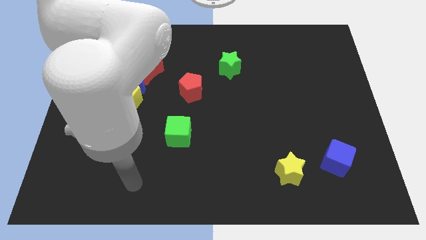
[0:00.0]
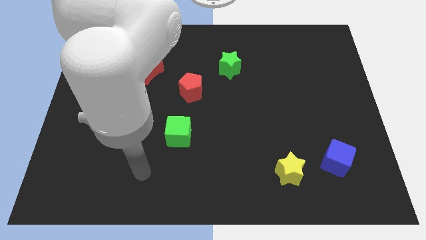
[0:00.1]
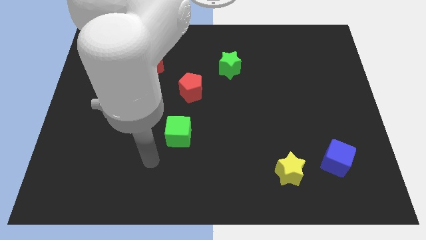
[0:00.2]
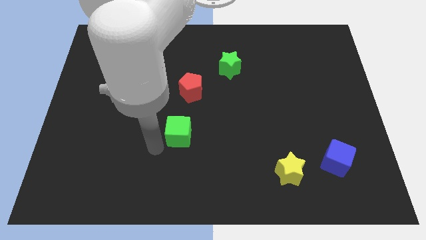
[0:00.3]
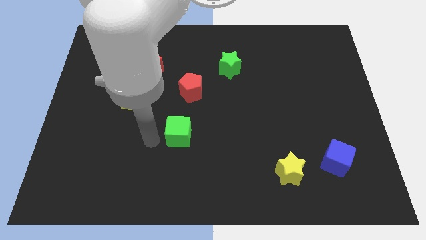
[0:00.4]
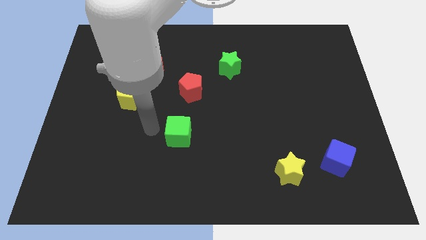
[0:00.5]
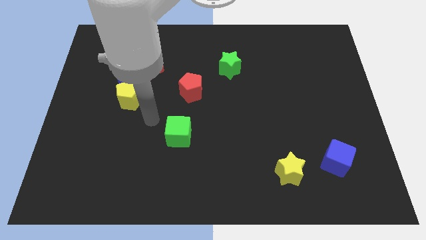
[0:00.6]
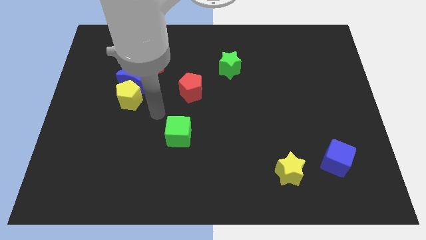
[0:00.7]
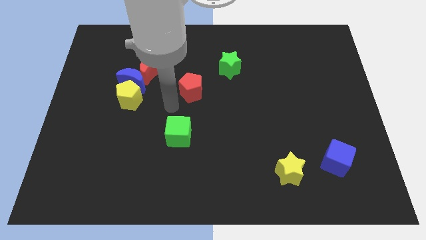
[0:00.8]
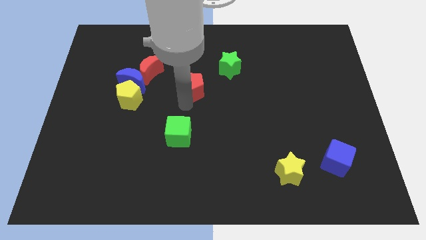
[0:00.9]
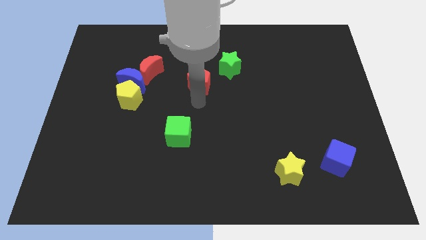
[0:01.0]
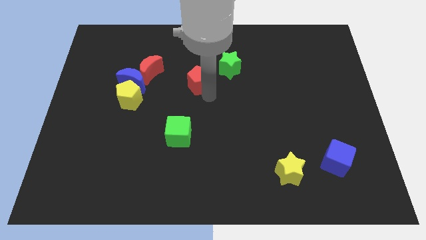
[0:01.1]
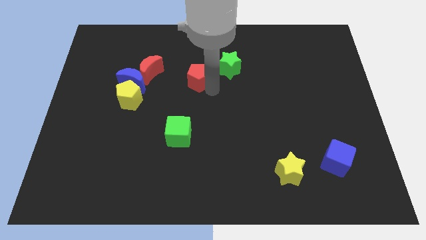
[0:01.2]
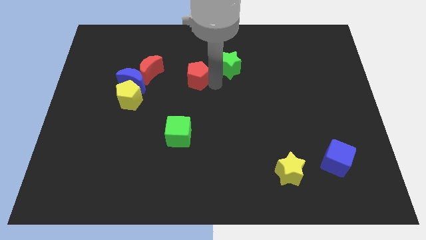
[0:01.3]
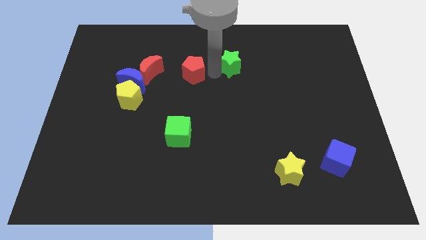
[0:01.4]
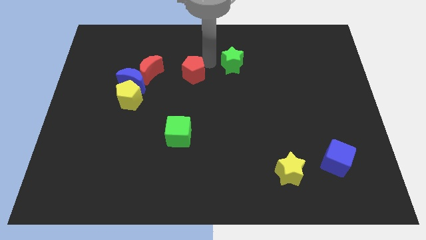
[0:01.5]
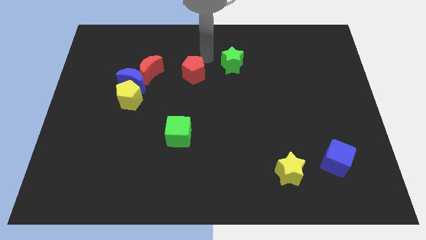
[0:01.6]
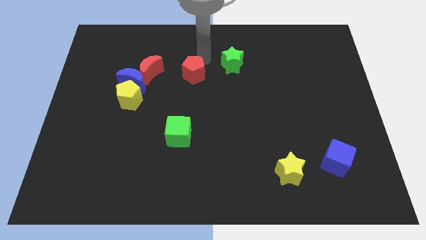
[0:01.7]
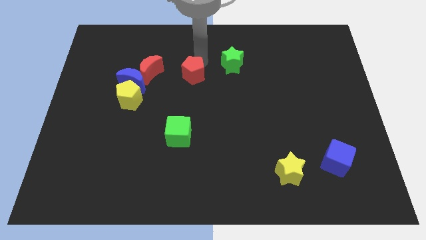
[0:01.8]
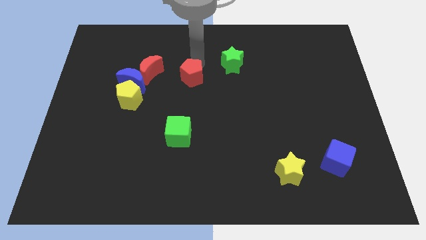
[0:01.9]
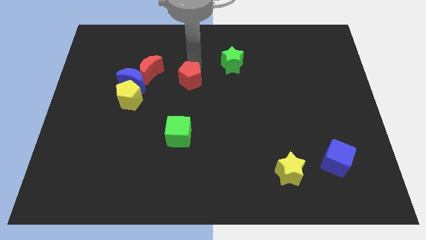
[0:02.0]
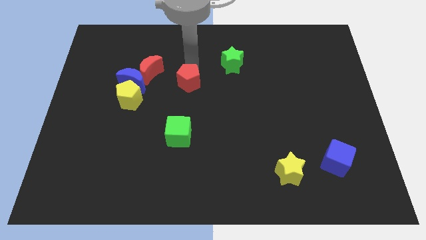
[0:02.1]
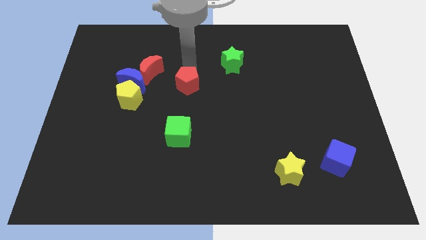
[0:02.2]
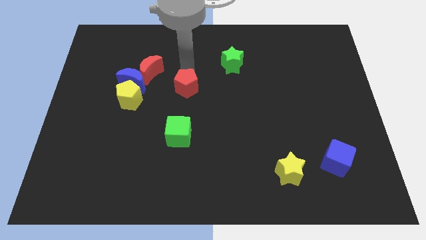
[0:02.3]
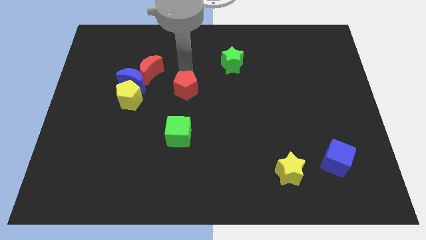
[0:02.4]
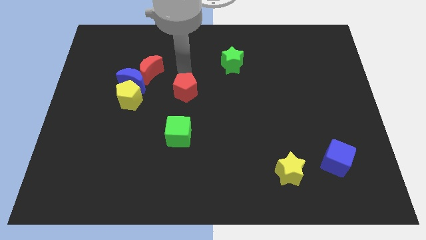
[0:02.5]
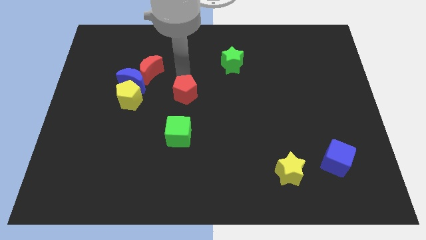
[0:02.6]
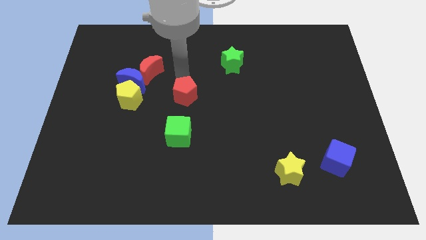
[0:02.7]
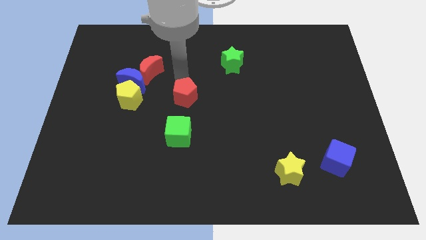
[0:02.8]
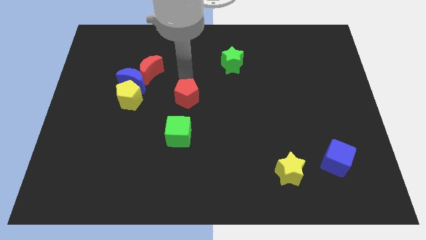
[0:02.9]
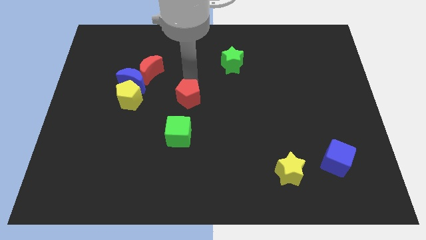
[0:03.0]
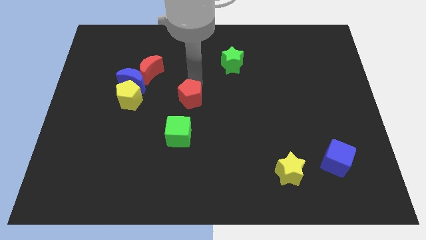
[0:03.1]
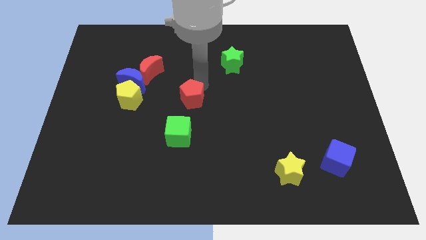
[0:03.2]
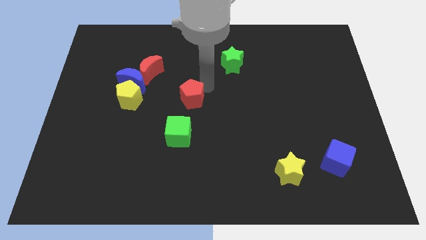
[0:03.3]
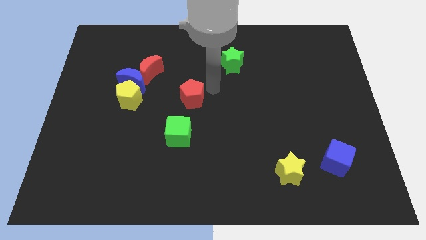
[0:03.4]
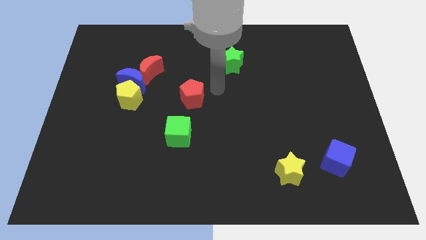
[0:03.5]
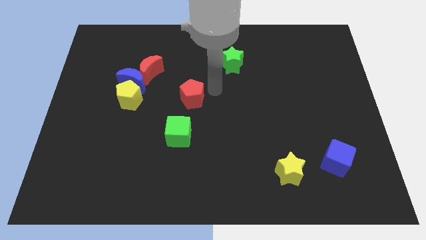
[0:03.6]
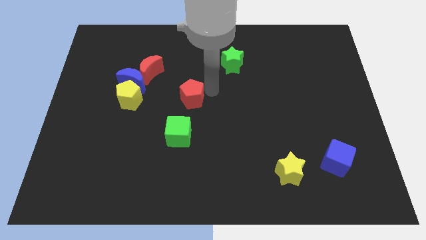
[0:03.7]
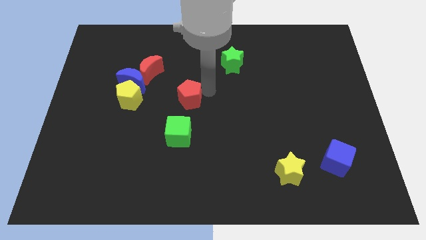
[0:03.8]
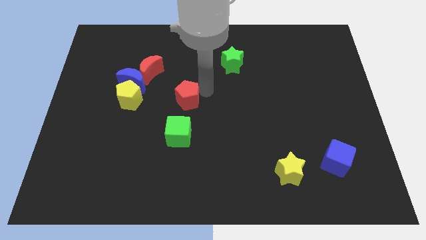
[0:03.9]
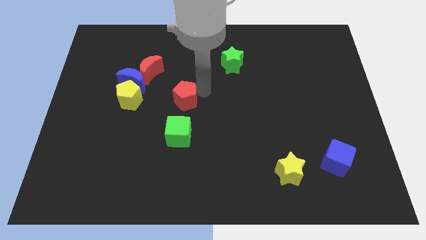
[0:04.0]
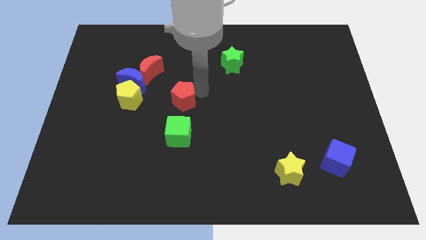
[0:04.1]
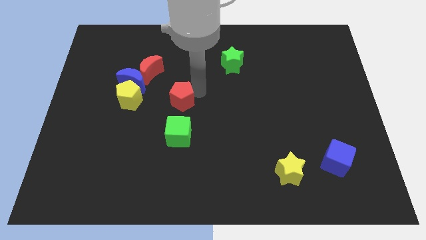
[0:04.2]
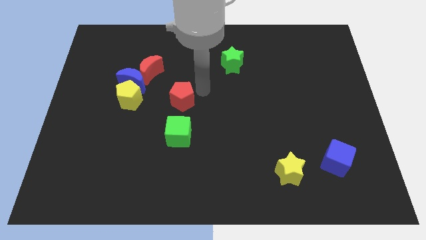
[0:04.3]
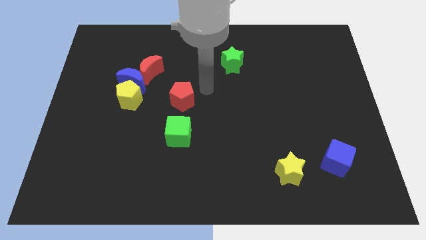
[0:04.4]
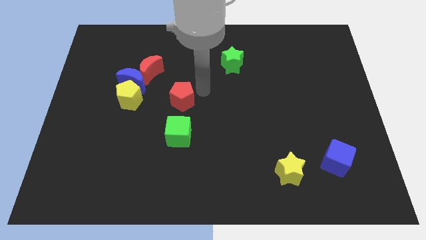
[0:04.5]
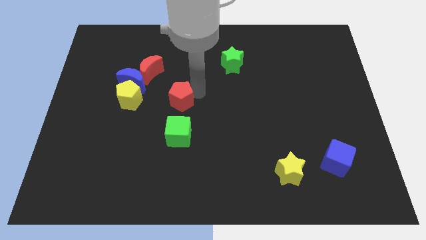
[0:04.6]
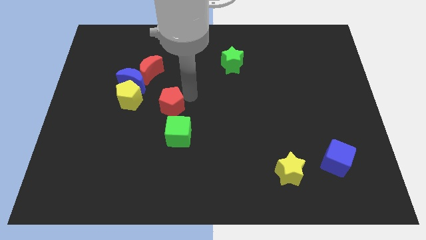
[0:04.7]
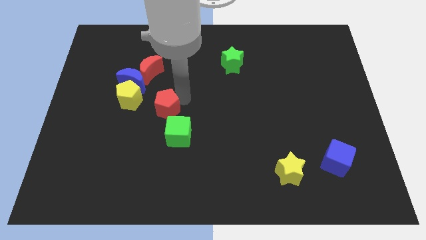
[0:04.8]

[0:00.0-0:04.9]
slightly push the red pentagon downwards and to the left

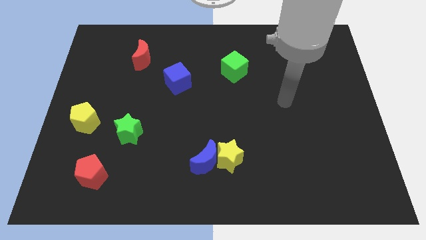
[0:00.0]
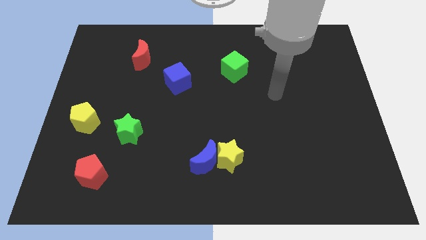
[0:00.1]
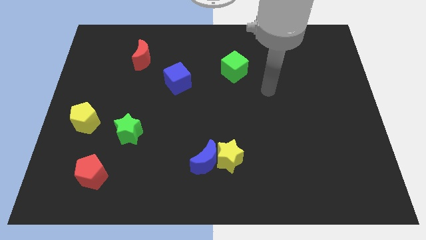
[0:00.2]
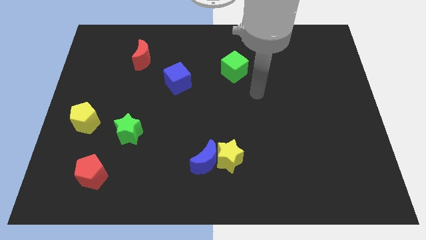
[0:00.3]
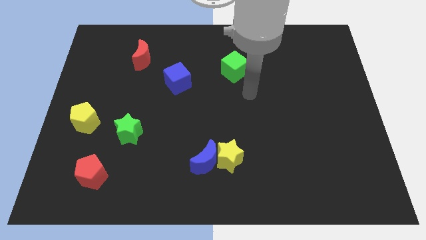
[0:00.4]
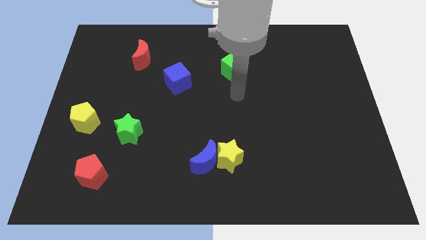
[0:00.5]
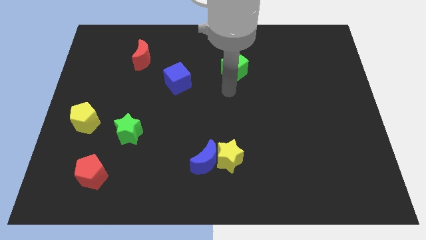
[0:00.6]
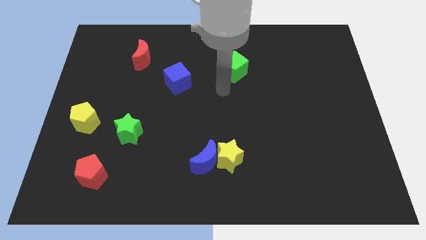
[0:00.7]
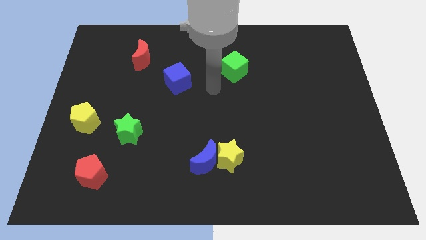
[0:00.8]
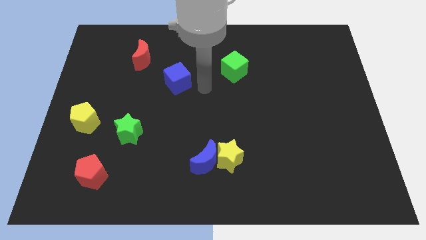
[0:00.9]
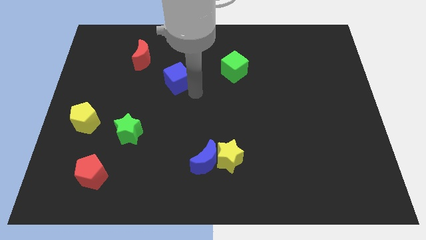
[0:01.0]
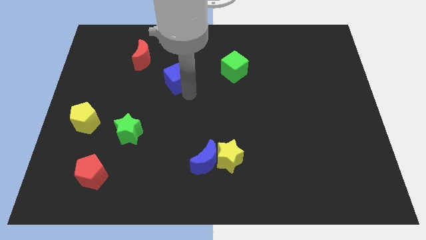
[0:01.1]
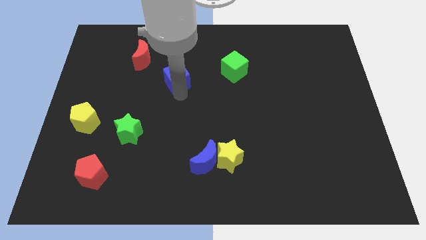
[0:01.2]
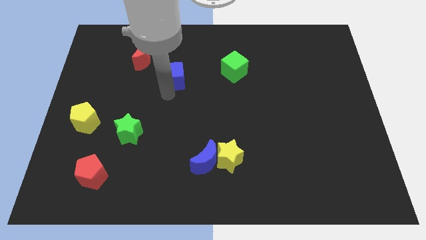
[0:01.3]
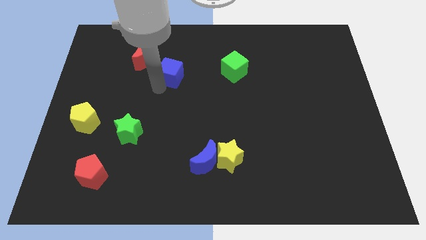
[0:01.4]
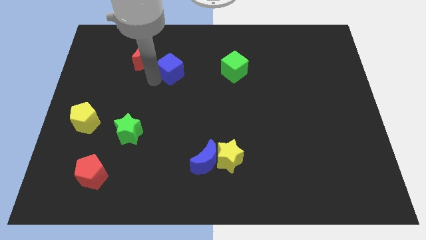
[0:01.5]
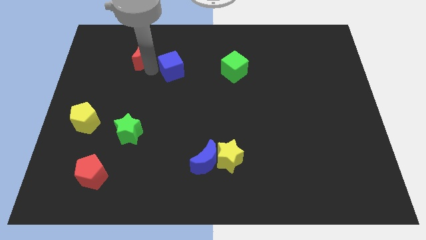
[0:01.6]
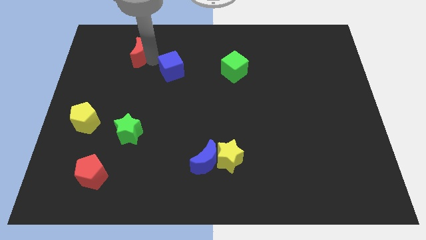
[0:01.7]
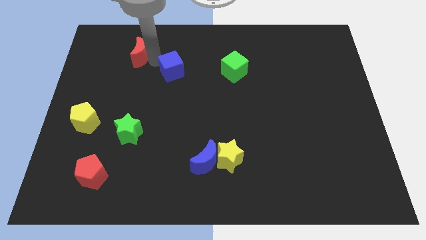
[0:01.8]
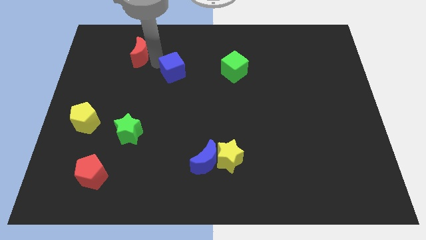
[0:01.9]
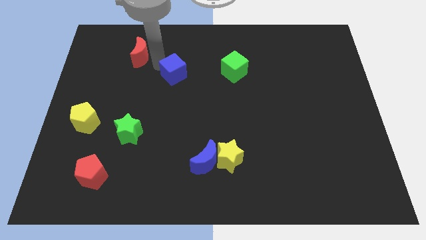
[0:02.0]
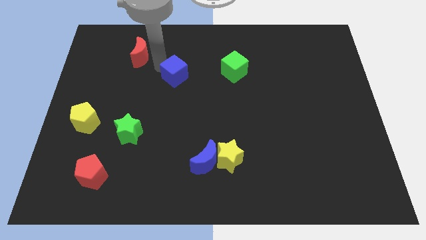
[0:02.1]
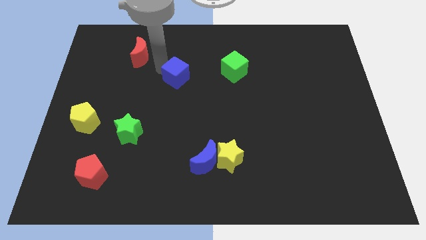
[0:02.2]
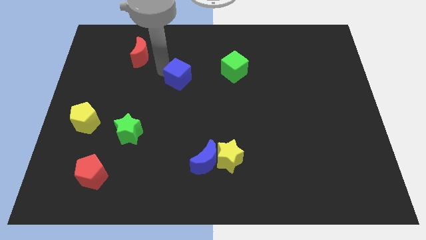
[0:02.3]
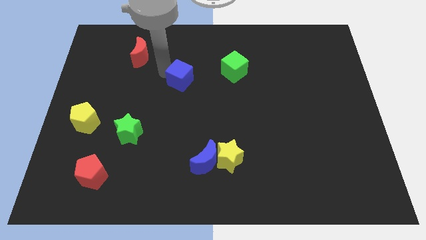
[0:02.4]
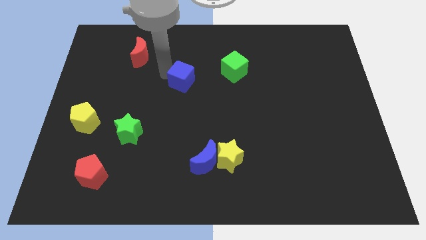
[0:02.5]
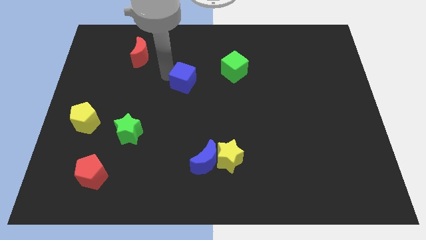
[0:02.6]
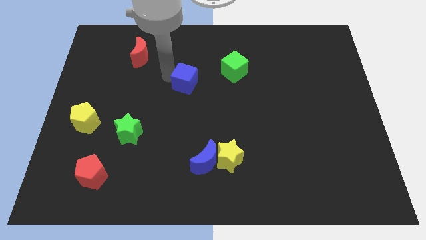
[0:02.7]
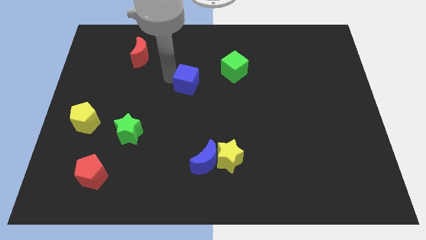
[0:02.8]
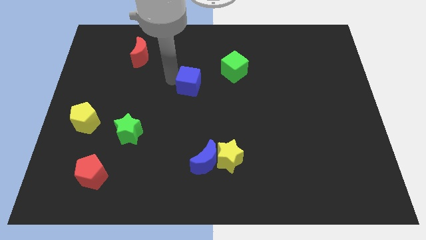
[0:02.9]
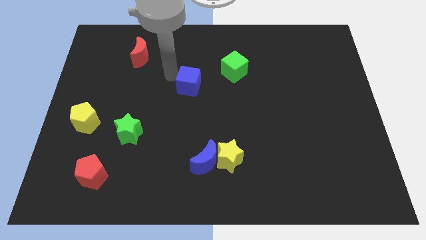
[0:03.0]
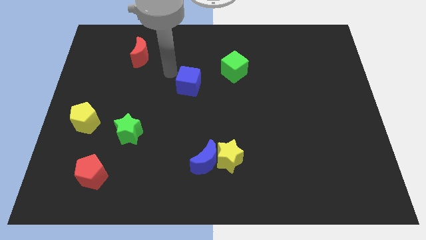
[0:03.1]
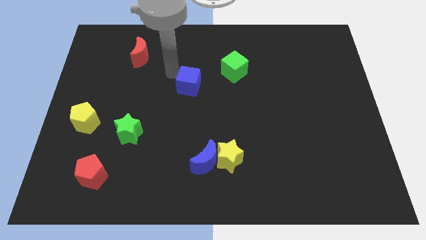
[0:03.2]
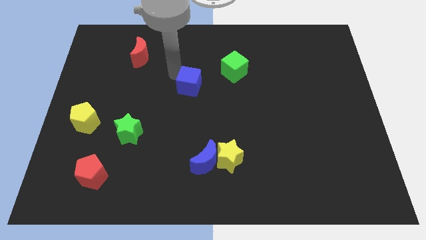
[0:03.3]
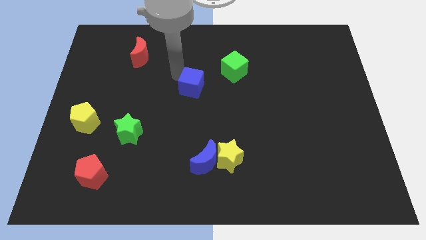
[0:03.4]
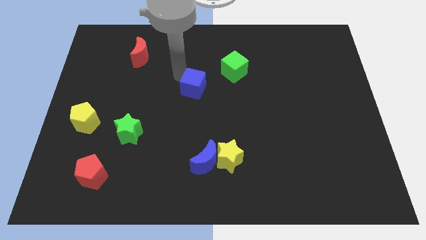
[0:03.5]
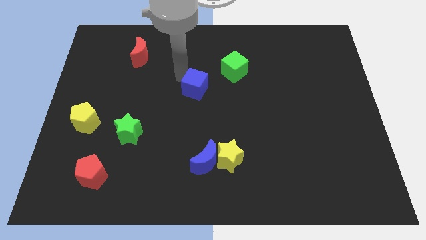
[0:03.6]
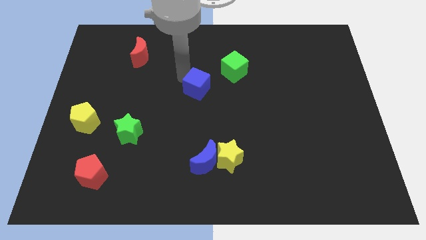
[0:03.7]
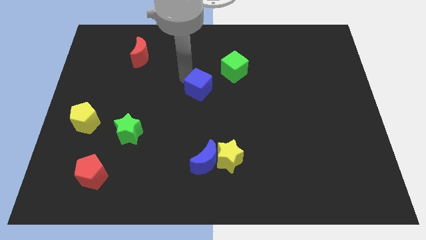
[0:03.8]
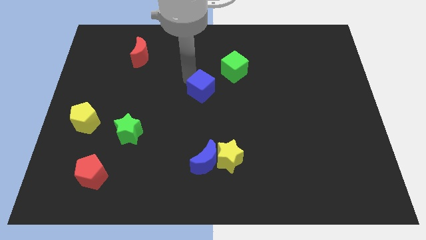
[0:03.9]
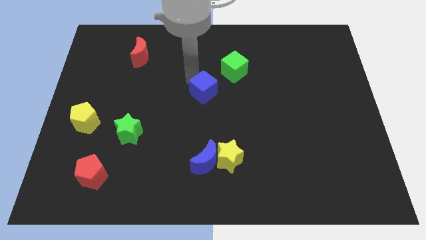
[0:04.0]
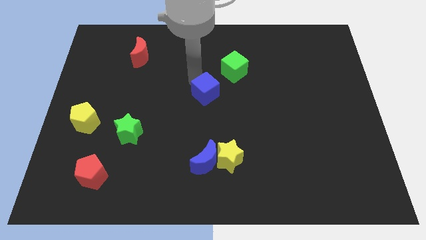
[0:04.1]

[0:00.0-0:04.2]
move the blue cube a little diagonally downwards and to the right
